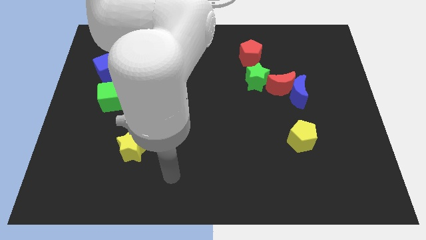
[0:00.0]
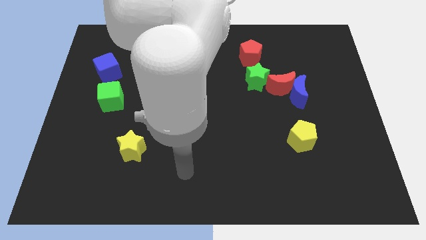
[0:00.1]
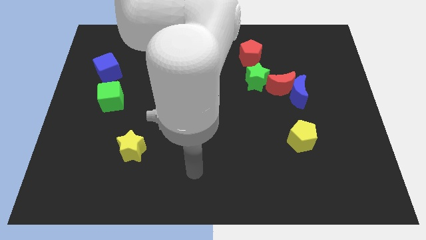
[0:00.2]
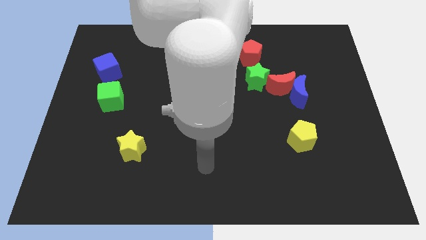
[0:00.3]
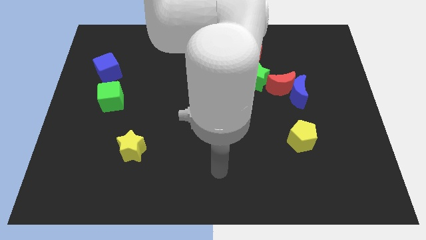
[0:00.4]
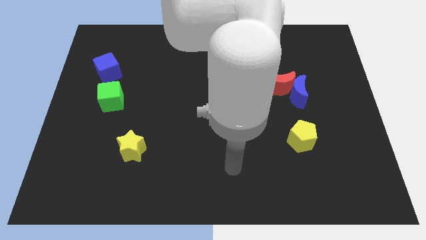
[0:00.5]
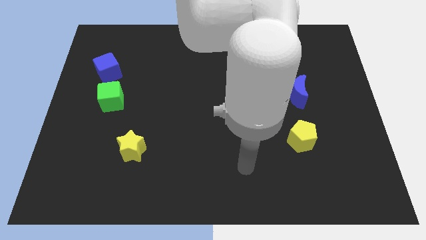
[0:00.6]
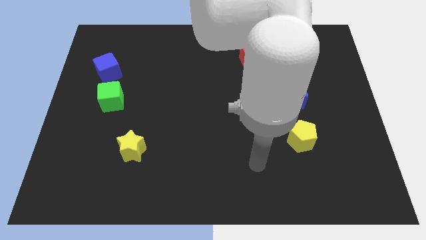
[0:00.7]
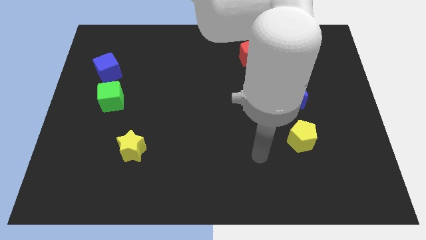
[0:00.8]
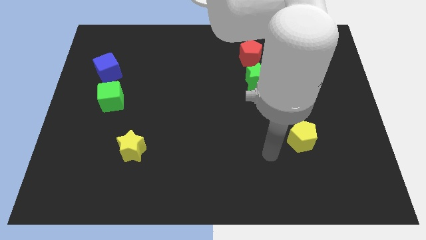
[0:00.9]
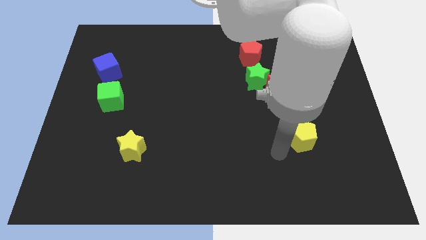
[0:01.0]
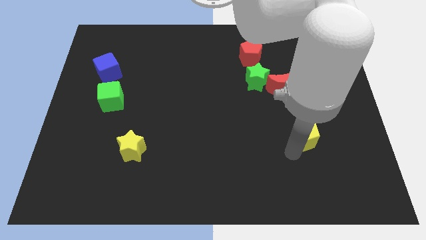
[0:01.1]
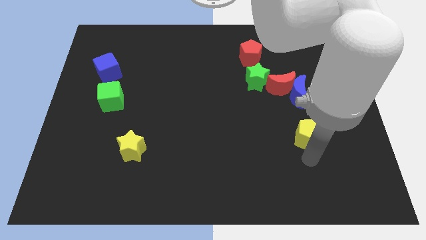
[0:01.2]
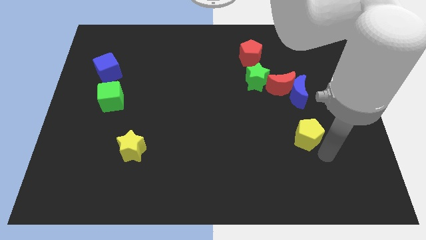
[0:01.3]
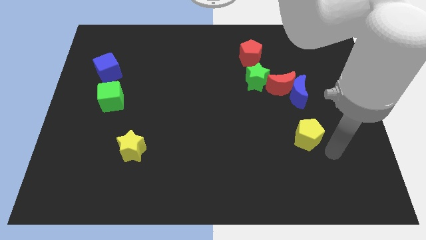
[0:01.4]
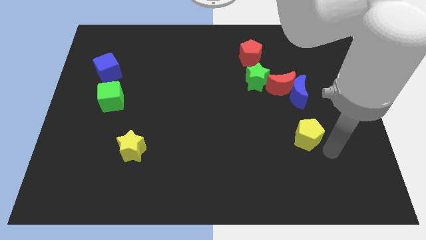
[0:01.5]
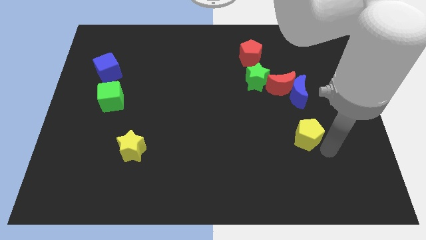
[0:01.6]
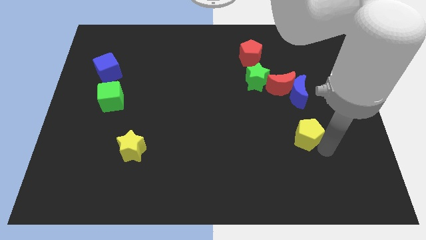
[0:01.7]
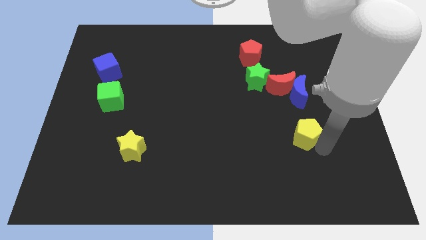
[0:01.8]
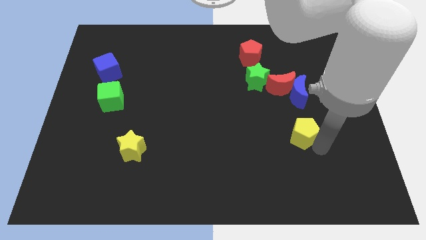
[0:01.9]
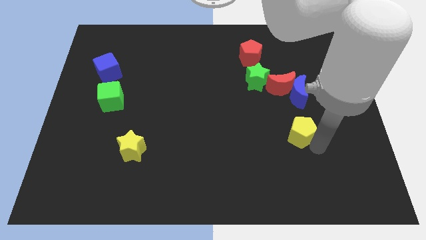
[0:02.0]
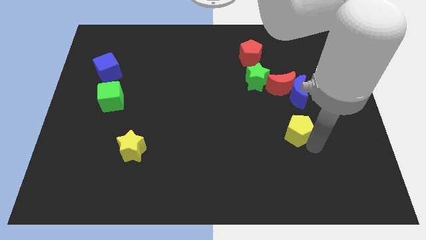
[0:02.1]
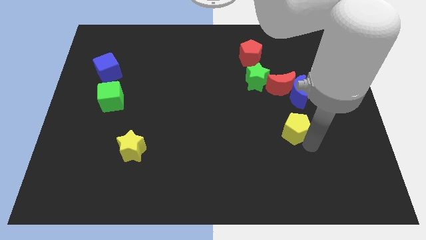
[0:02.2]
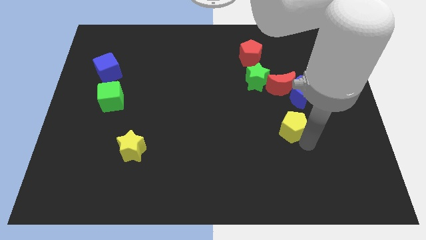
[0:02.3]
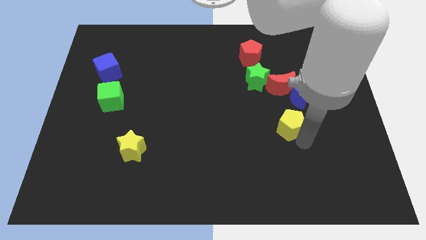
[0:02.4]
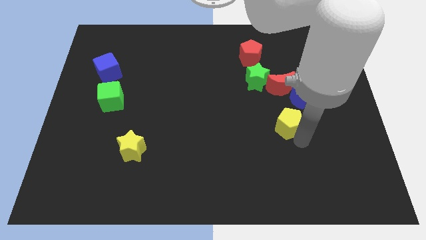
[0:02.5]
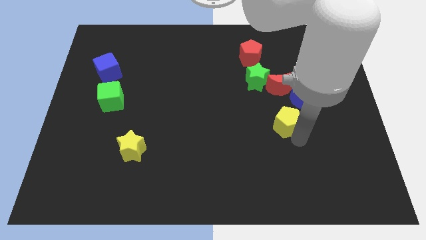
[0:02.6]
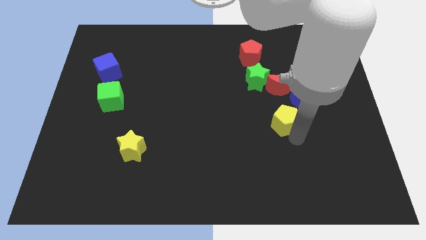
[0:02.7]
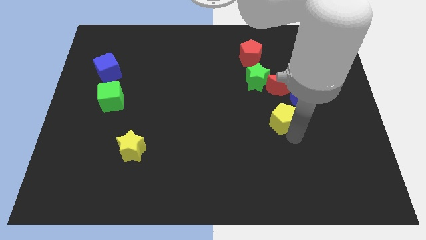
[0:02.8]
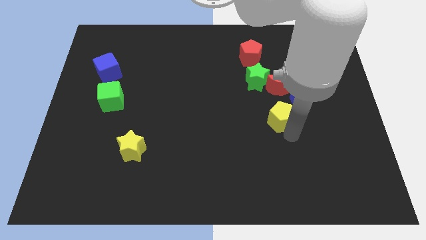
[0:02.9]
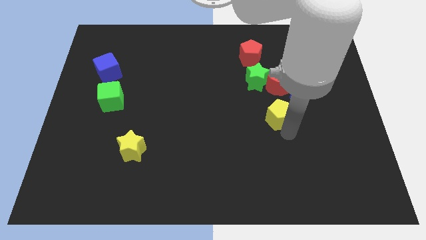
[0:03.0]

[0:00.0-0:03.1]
push the yellow pentagon up and to the left diagonally slightly

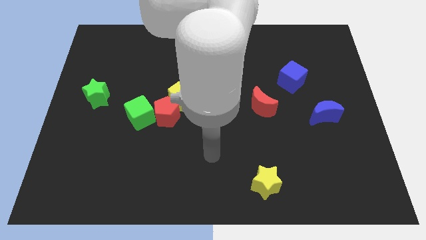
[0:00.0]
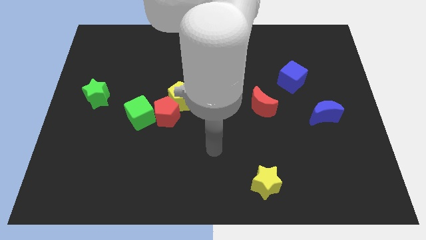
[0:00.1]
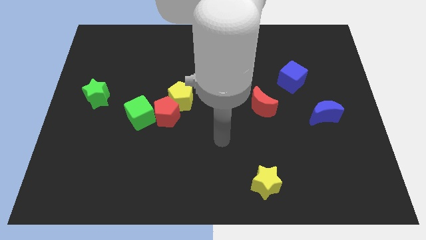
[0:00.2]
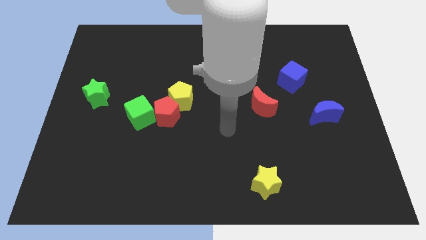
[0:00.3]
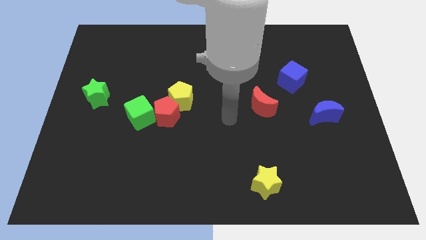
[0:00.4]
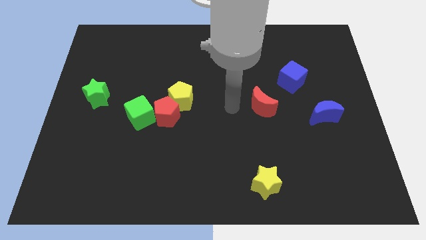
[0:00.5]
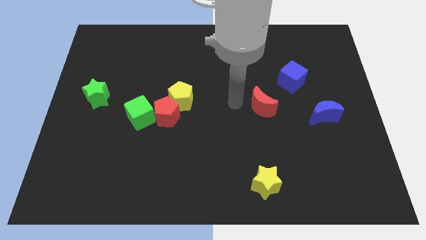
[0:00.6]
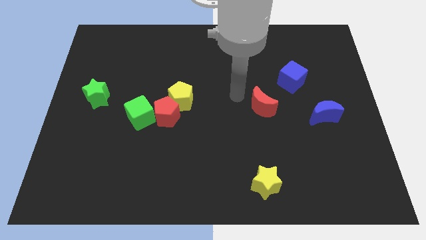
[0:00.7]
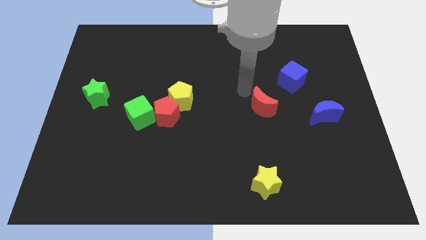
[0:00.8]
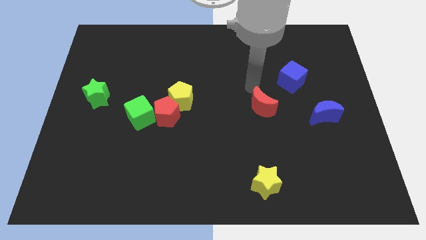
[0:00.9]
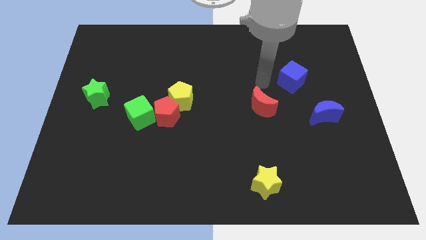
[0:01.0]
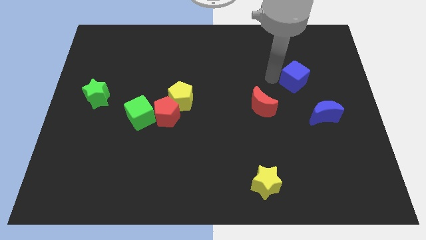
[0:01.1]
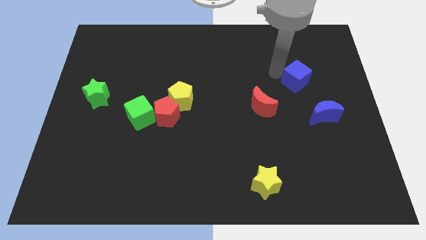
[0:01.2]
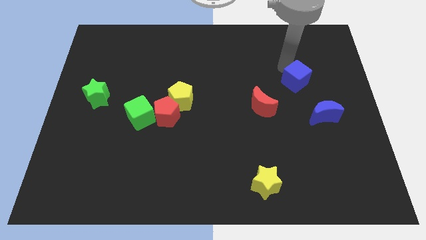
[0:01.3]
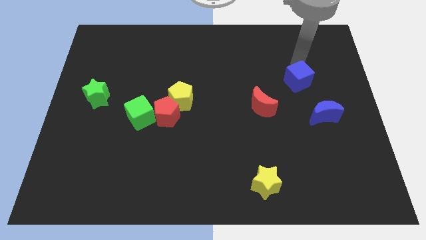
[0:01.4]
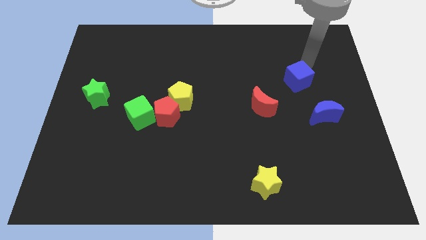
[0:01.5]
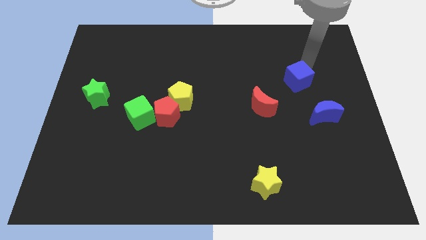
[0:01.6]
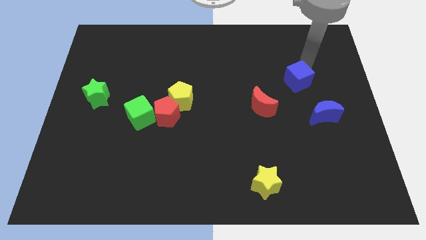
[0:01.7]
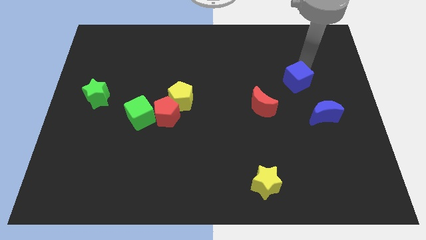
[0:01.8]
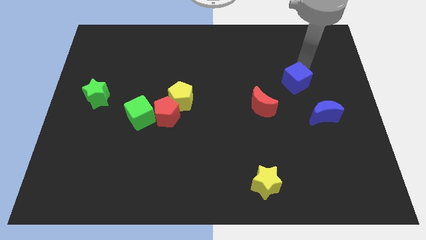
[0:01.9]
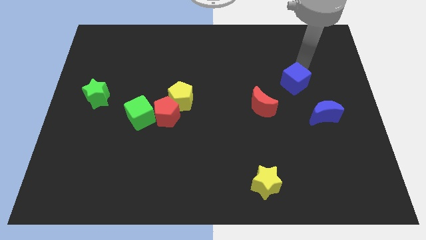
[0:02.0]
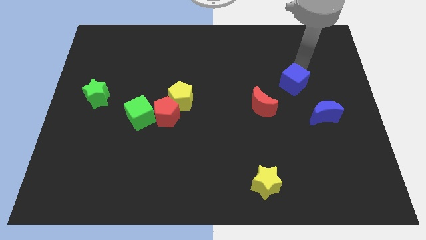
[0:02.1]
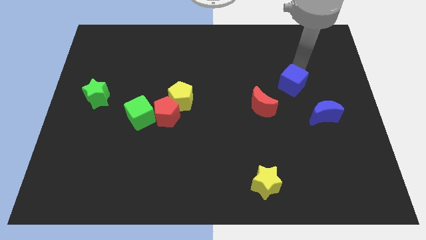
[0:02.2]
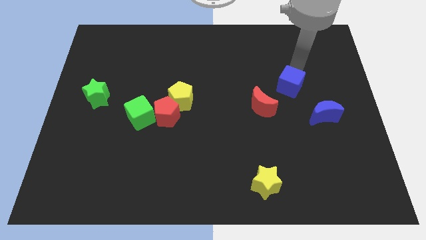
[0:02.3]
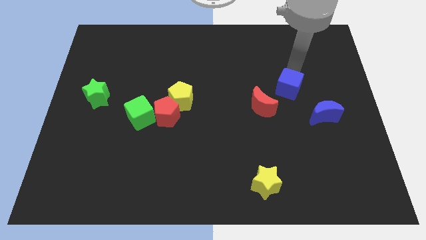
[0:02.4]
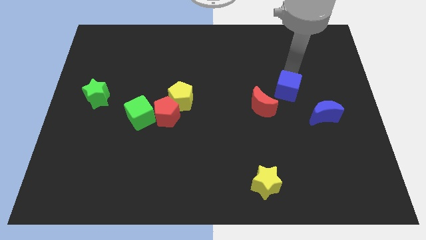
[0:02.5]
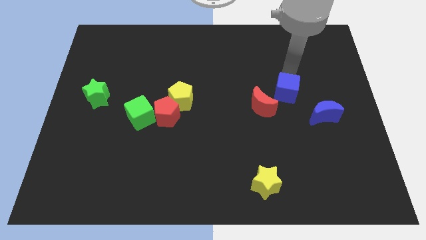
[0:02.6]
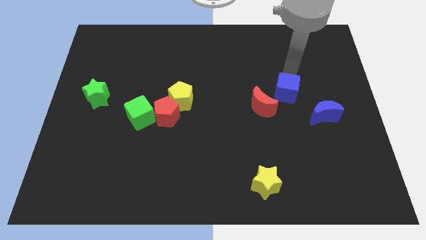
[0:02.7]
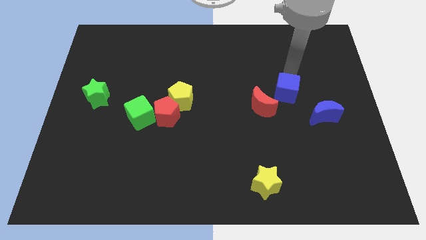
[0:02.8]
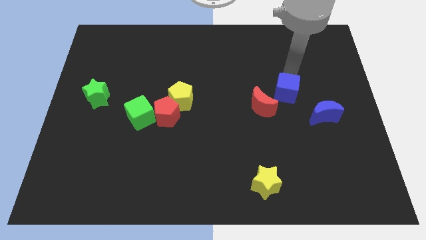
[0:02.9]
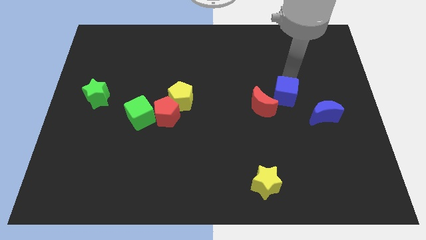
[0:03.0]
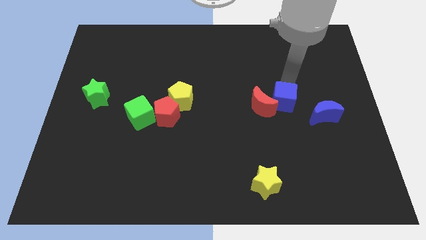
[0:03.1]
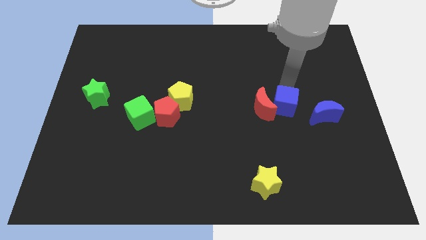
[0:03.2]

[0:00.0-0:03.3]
move the blue cube downwards and then to the left a bit

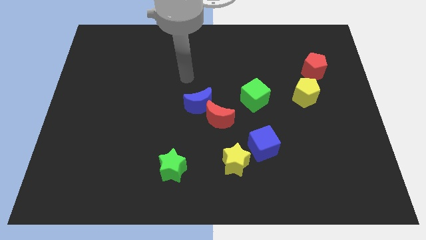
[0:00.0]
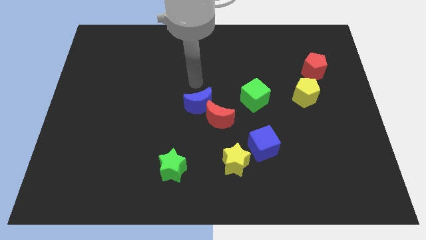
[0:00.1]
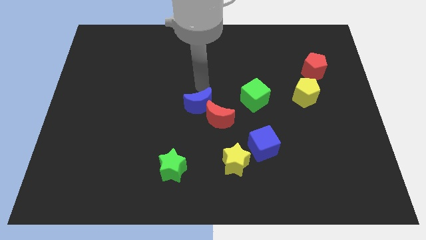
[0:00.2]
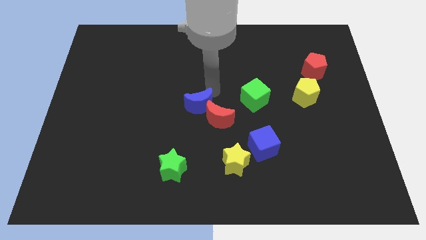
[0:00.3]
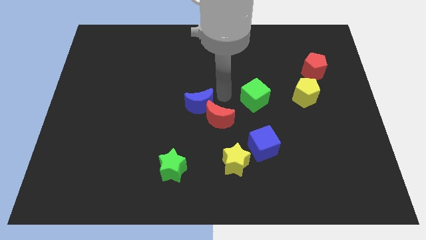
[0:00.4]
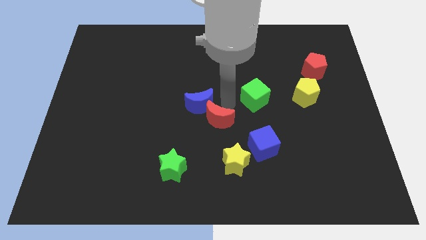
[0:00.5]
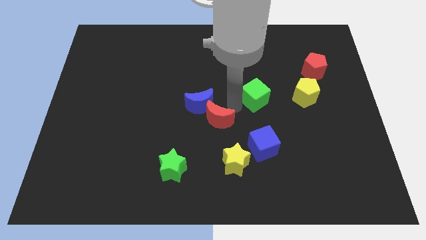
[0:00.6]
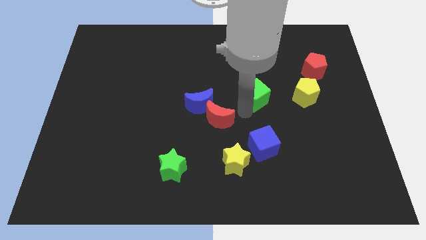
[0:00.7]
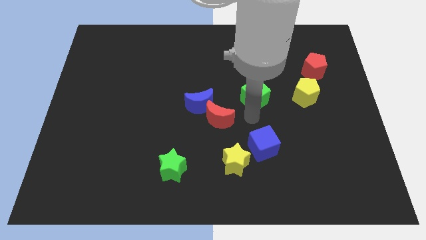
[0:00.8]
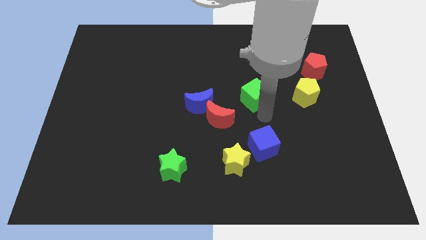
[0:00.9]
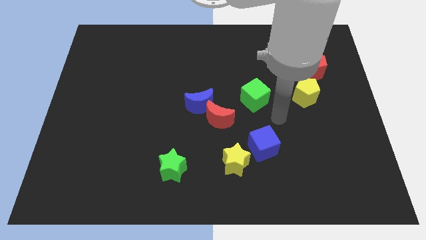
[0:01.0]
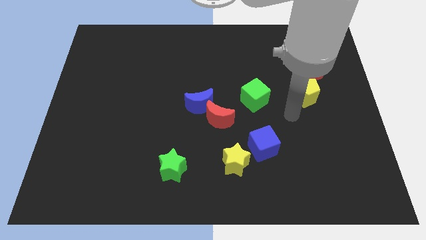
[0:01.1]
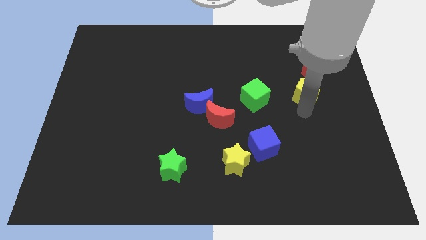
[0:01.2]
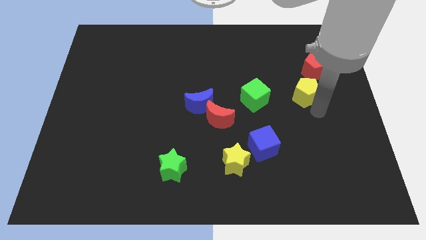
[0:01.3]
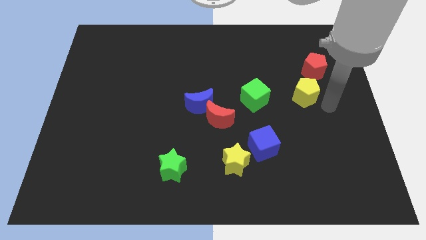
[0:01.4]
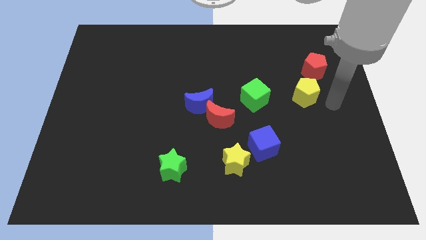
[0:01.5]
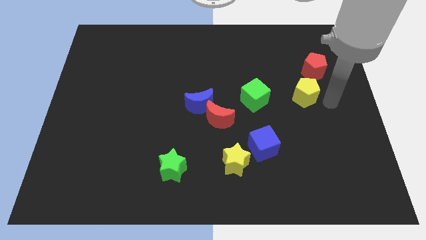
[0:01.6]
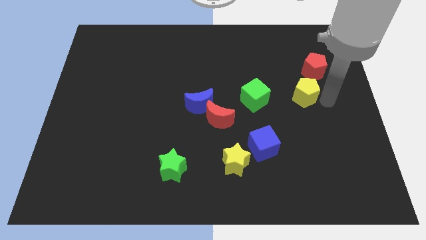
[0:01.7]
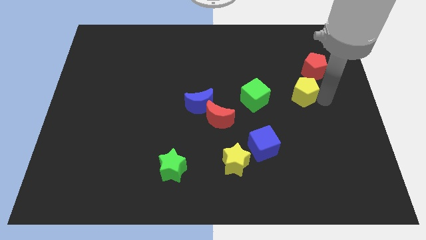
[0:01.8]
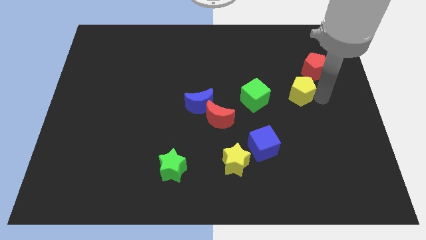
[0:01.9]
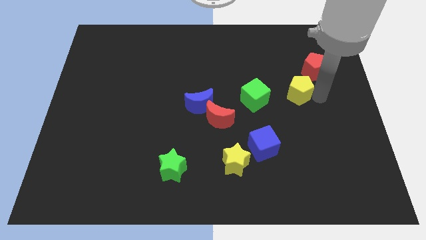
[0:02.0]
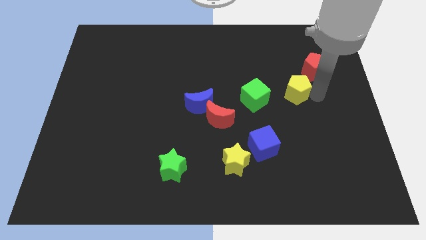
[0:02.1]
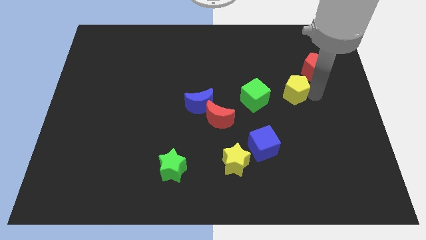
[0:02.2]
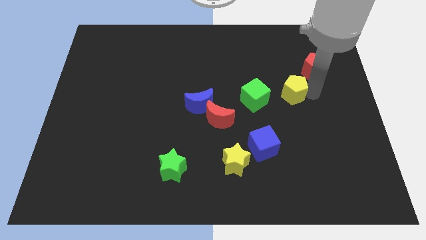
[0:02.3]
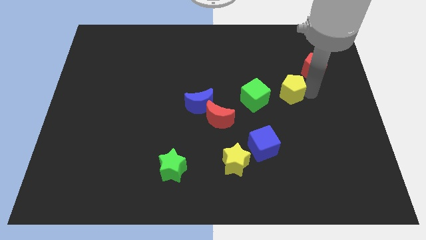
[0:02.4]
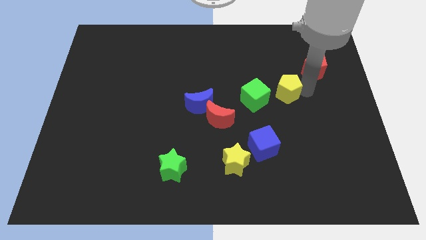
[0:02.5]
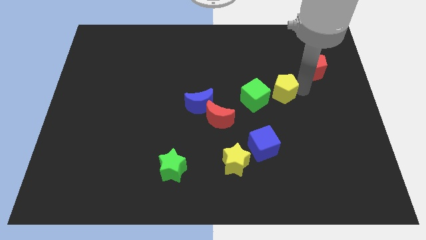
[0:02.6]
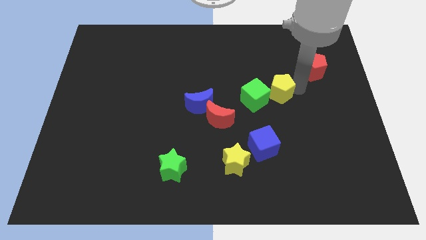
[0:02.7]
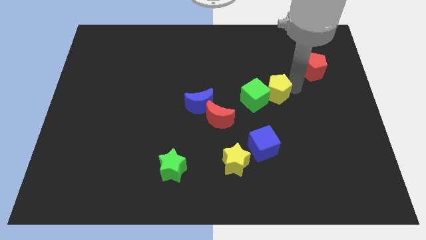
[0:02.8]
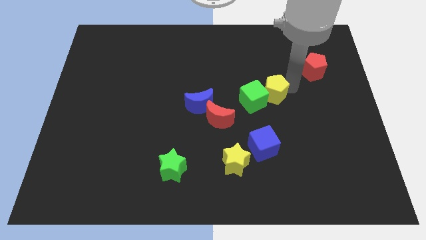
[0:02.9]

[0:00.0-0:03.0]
slightly slide the yellow pentagon to the left
